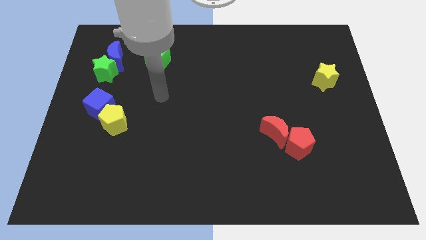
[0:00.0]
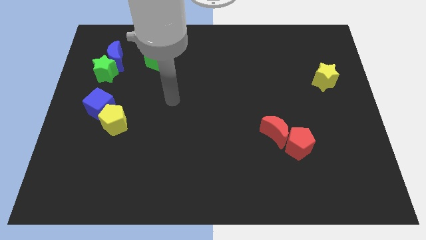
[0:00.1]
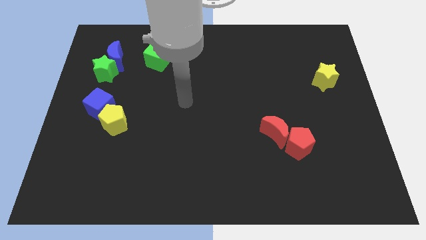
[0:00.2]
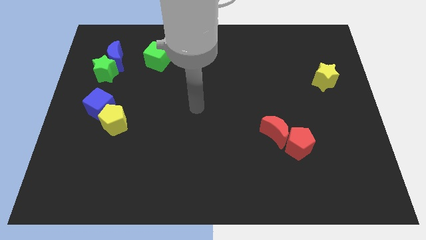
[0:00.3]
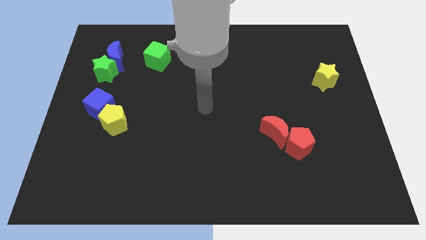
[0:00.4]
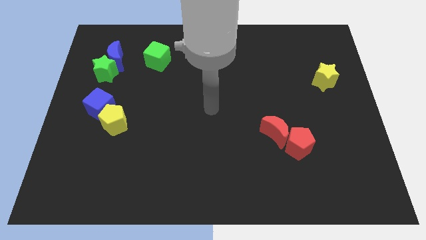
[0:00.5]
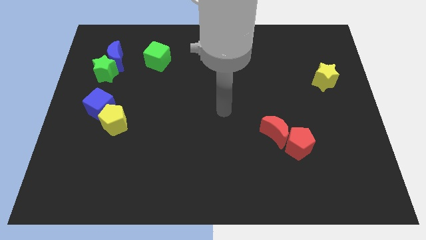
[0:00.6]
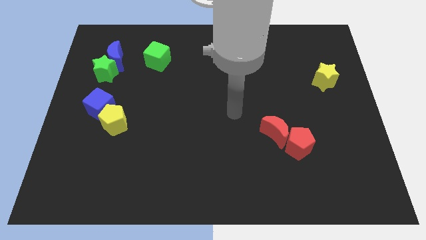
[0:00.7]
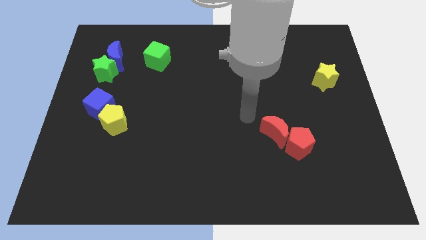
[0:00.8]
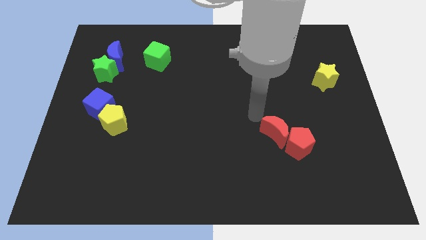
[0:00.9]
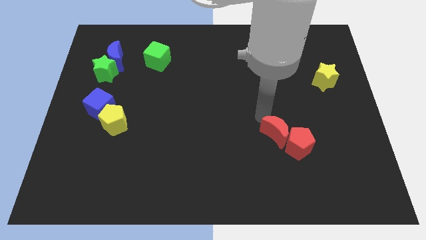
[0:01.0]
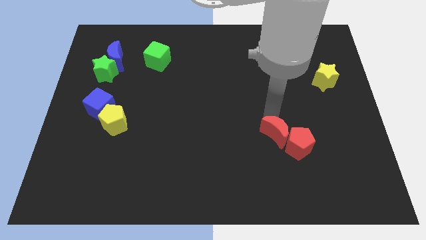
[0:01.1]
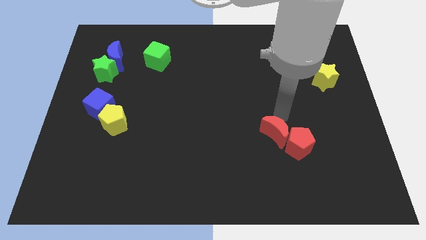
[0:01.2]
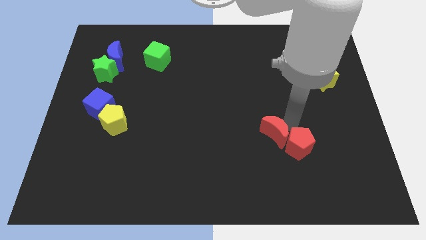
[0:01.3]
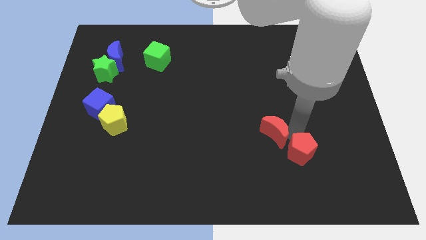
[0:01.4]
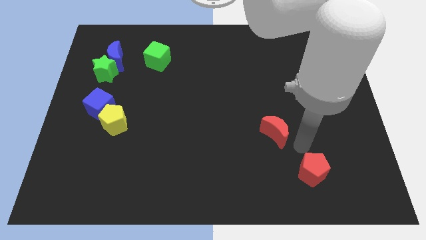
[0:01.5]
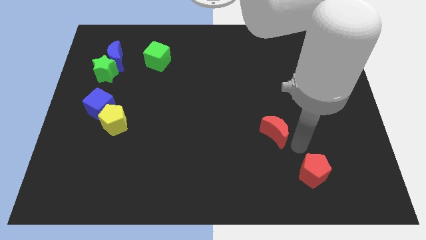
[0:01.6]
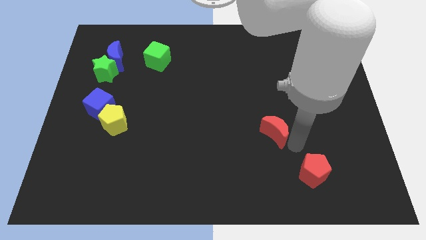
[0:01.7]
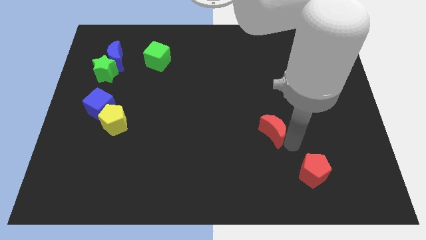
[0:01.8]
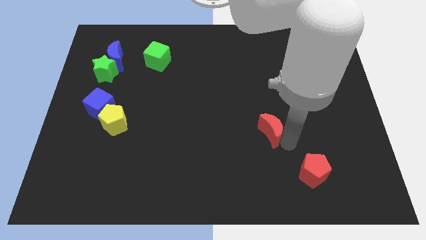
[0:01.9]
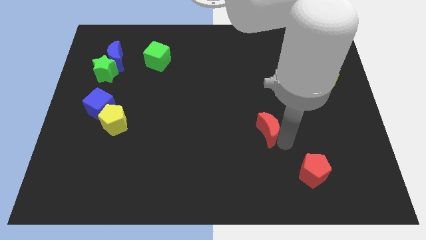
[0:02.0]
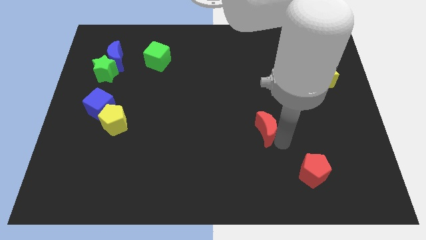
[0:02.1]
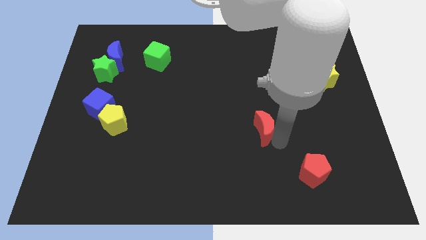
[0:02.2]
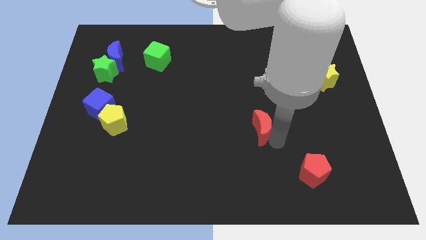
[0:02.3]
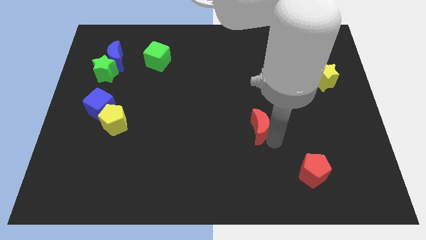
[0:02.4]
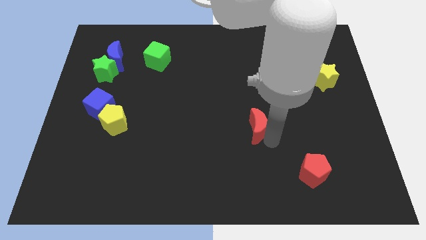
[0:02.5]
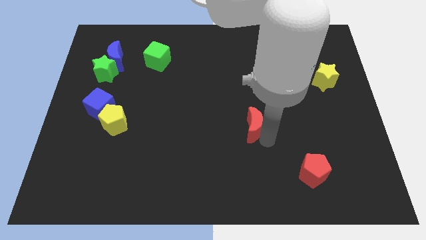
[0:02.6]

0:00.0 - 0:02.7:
put the red moon to the middle of the board

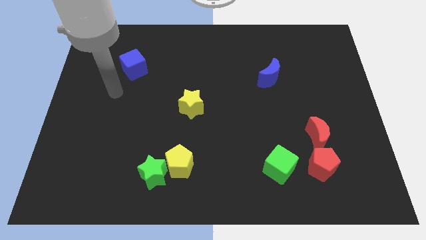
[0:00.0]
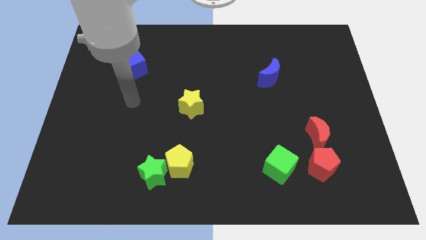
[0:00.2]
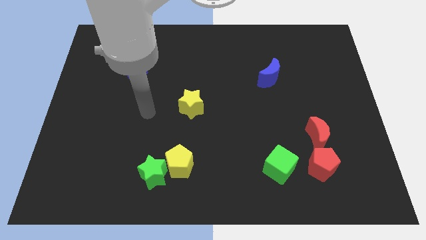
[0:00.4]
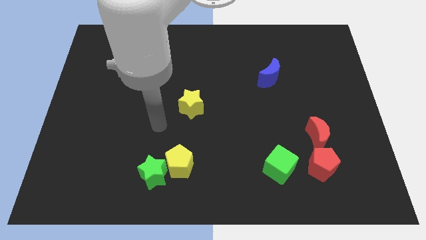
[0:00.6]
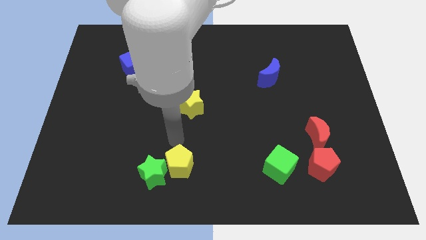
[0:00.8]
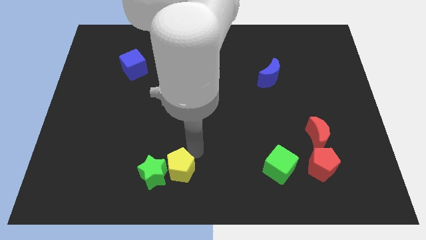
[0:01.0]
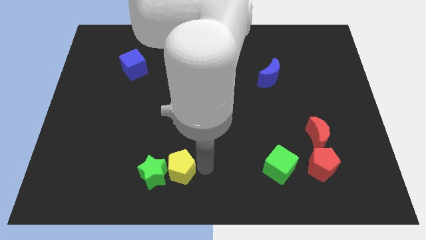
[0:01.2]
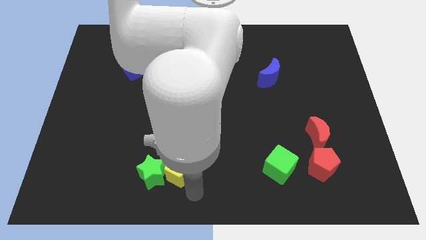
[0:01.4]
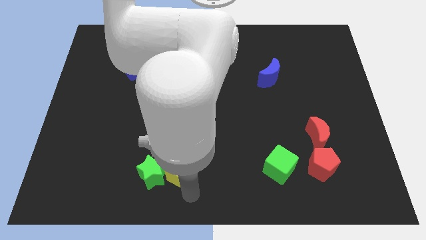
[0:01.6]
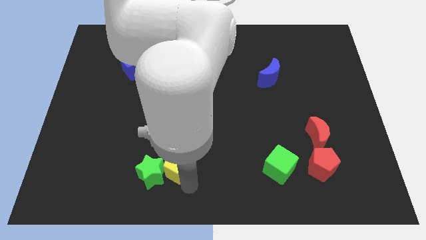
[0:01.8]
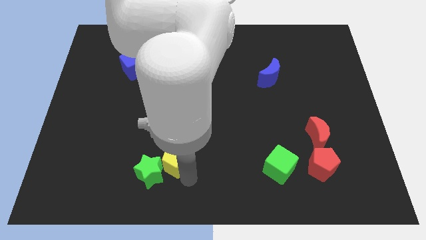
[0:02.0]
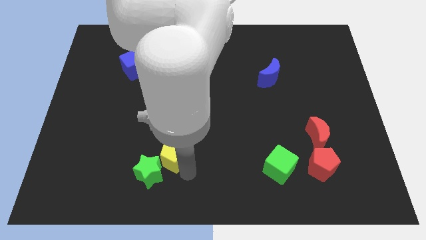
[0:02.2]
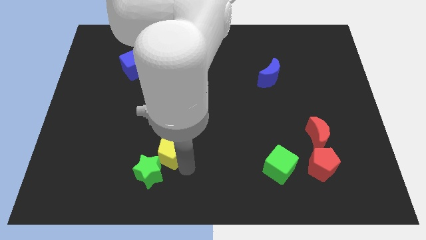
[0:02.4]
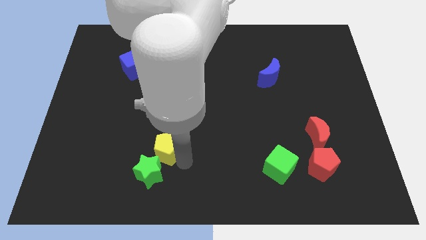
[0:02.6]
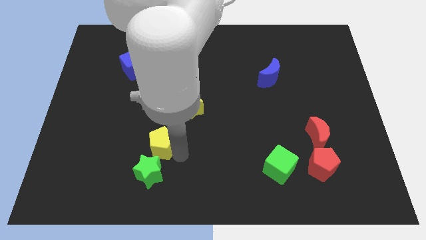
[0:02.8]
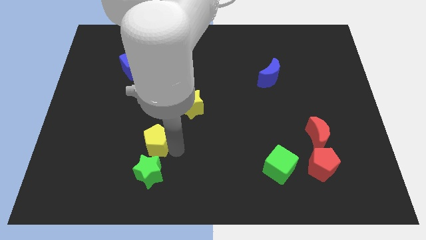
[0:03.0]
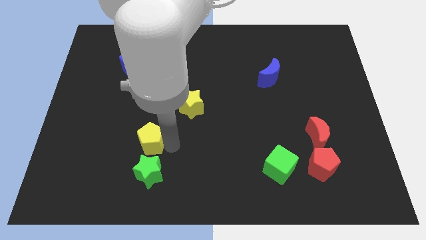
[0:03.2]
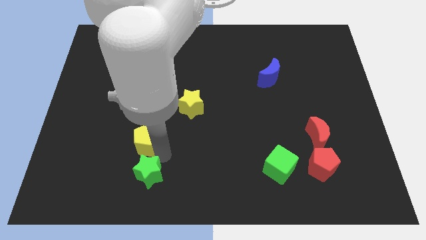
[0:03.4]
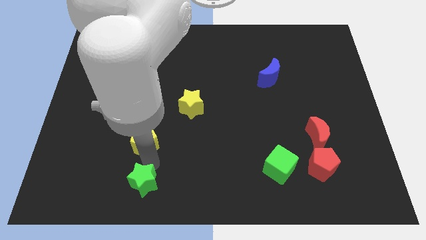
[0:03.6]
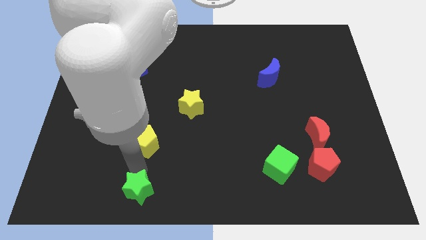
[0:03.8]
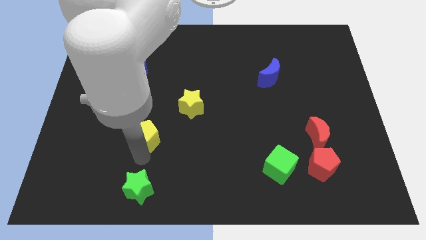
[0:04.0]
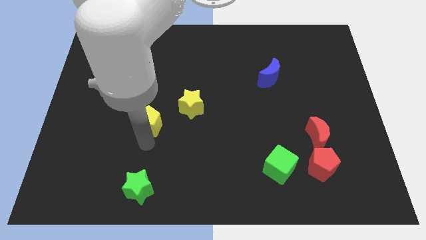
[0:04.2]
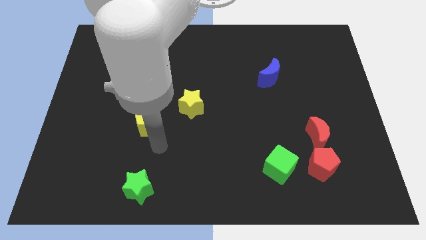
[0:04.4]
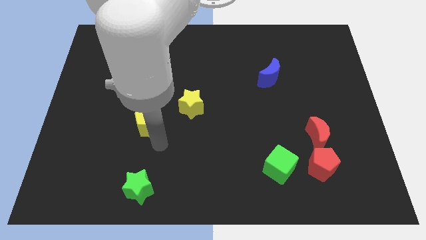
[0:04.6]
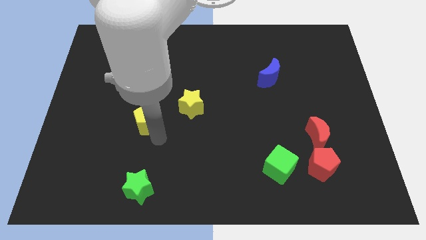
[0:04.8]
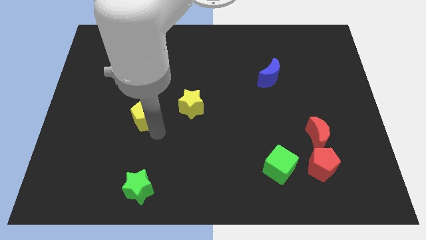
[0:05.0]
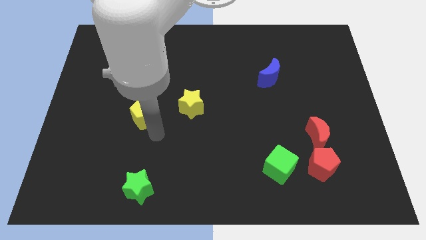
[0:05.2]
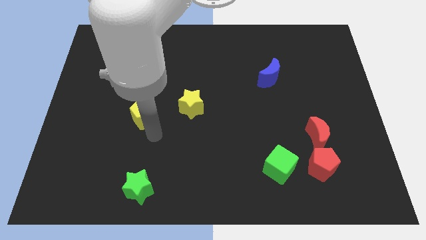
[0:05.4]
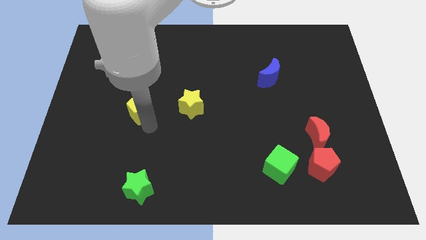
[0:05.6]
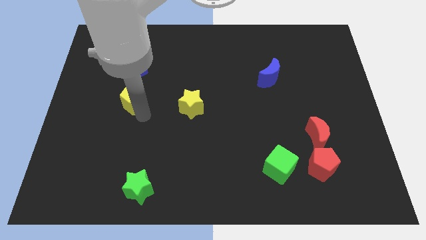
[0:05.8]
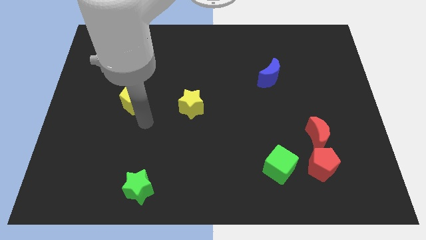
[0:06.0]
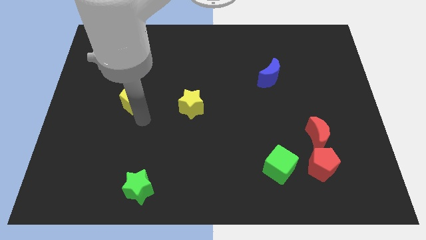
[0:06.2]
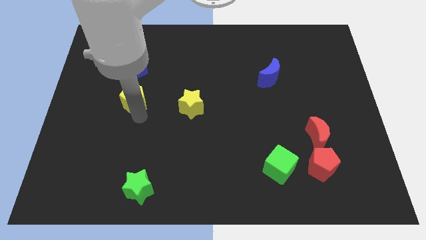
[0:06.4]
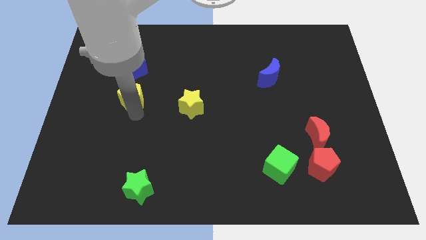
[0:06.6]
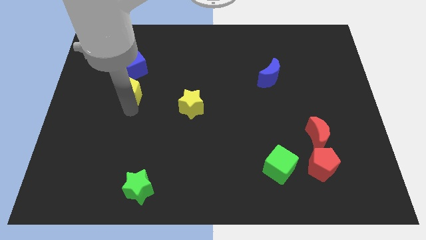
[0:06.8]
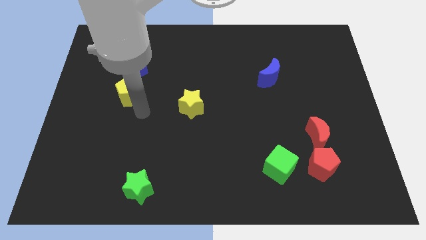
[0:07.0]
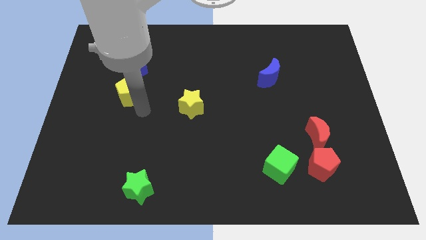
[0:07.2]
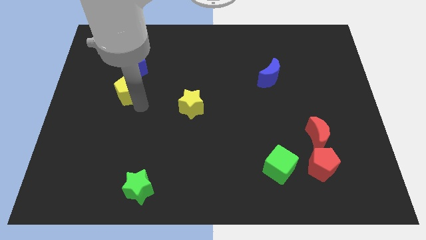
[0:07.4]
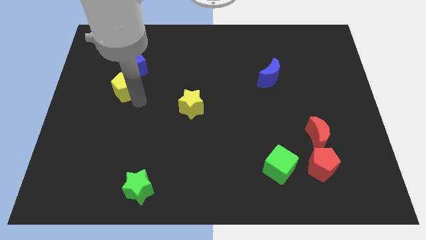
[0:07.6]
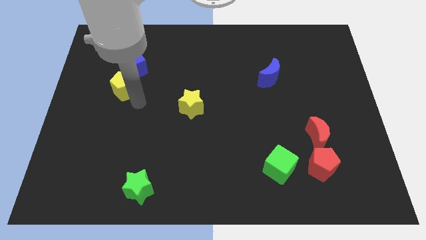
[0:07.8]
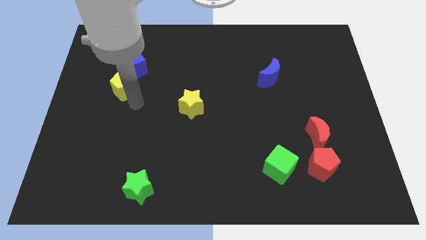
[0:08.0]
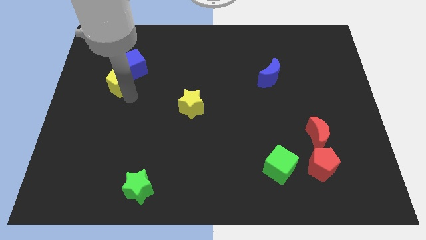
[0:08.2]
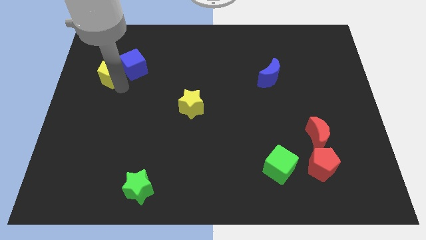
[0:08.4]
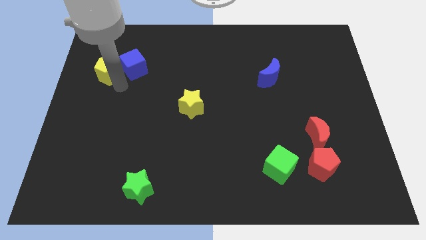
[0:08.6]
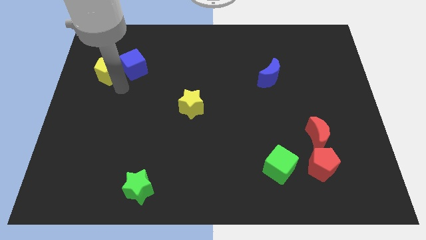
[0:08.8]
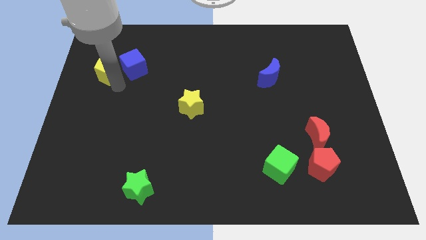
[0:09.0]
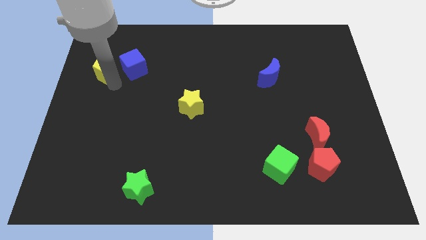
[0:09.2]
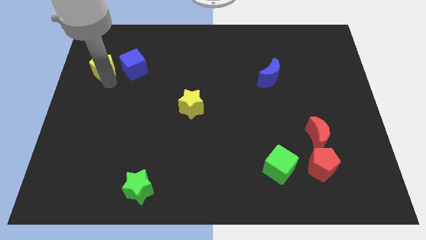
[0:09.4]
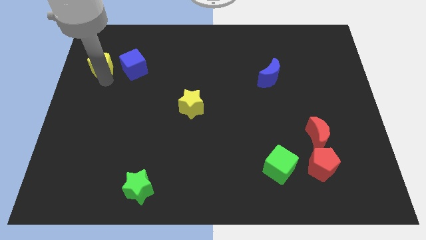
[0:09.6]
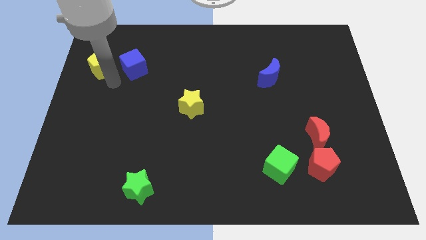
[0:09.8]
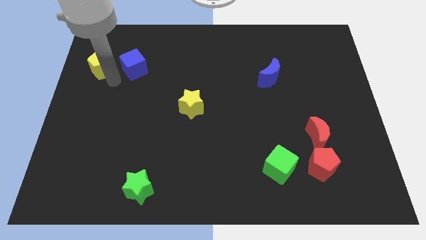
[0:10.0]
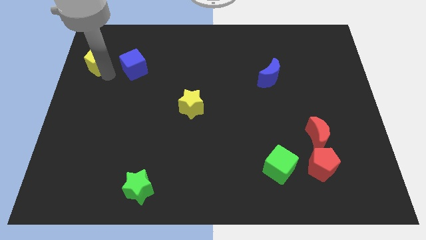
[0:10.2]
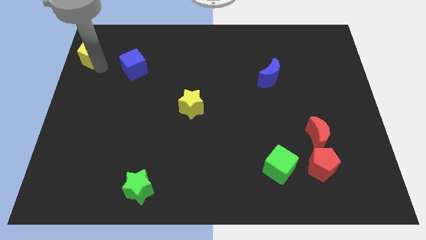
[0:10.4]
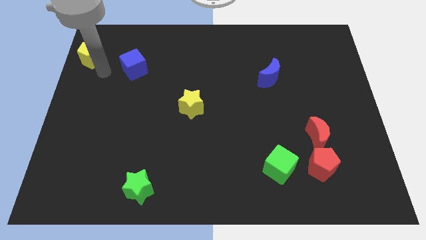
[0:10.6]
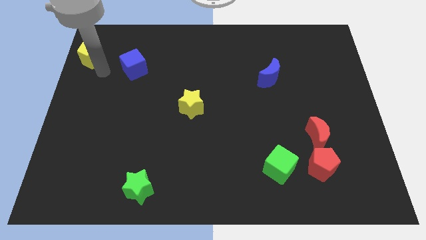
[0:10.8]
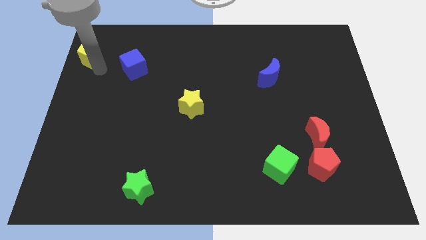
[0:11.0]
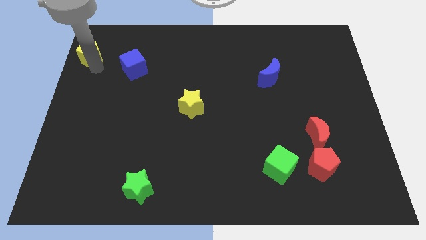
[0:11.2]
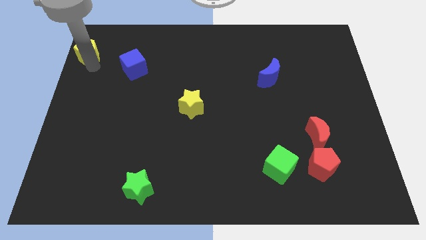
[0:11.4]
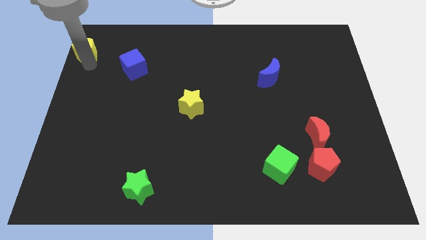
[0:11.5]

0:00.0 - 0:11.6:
push the yellow pentagon to the top left corner
